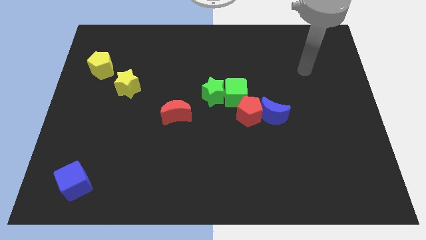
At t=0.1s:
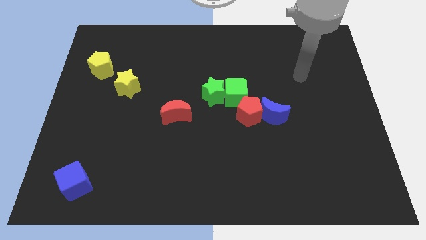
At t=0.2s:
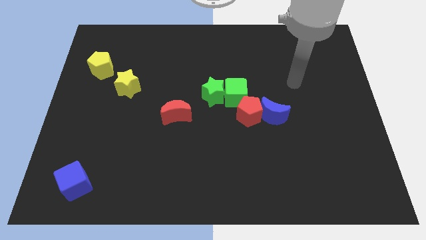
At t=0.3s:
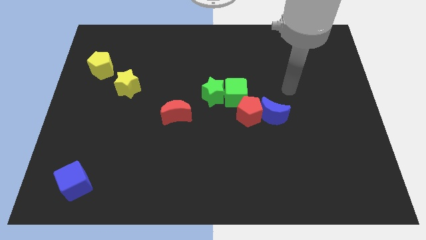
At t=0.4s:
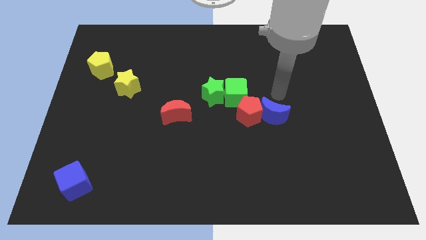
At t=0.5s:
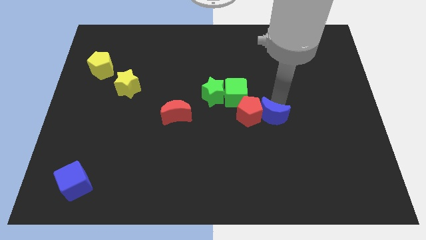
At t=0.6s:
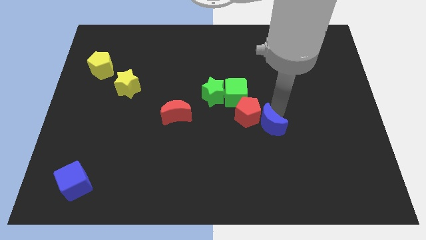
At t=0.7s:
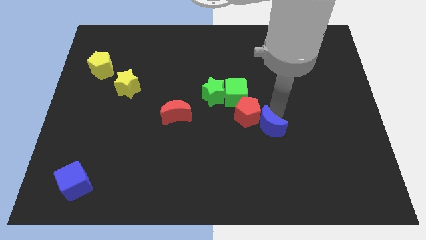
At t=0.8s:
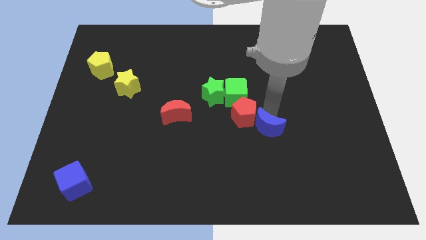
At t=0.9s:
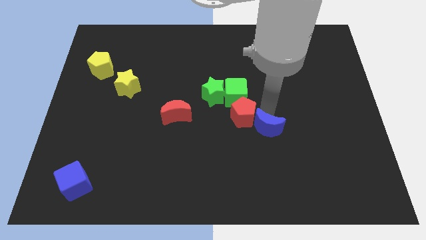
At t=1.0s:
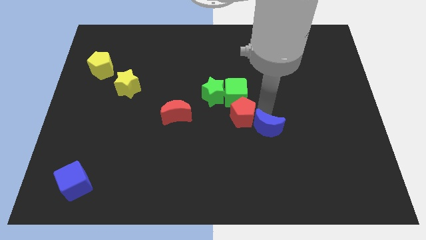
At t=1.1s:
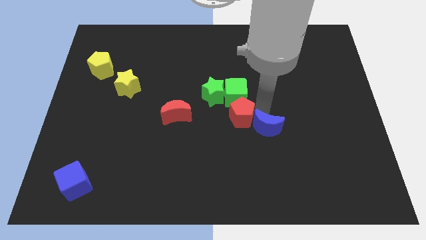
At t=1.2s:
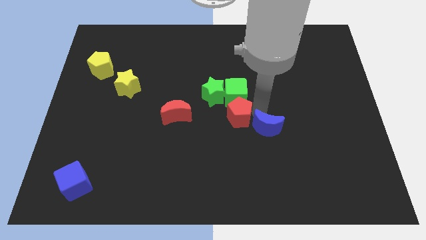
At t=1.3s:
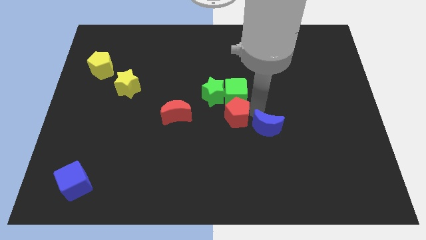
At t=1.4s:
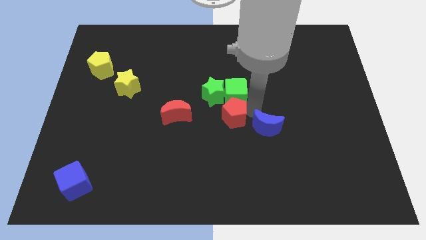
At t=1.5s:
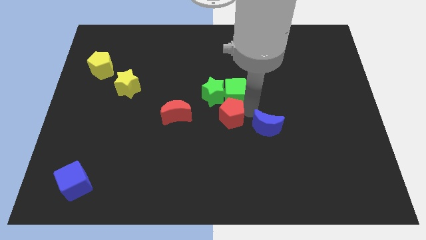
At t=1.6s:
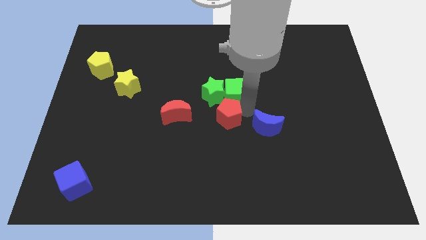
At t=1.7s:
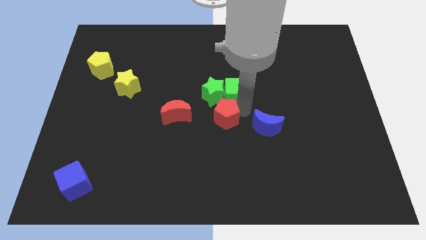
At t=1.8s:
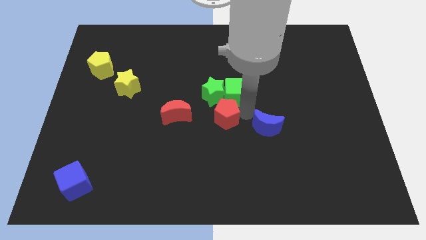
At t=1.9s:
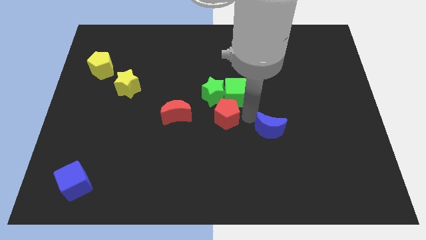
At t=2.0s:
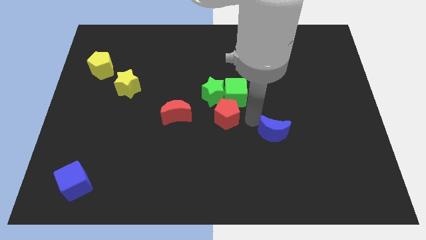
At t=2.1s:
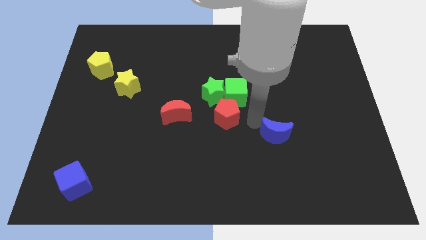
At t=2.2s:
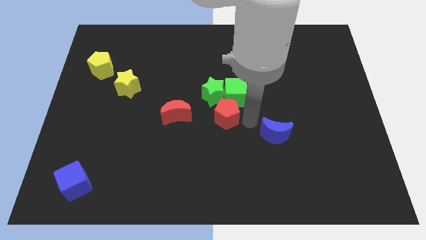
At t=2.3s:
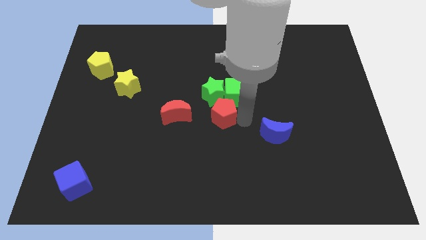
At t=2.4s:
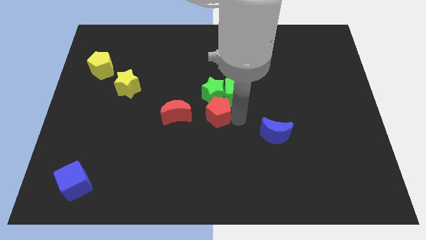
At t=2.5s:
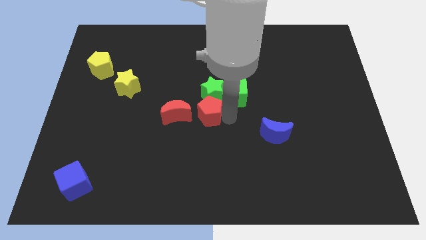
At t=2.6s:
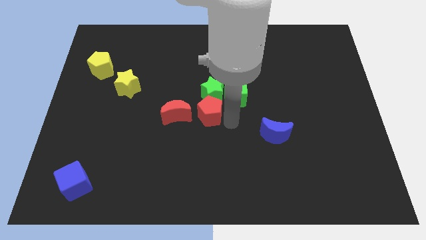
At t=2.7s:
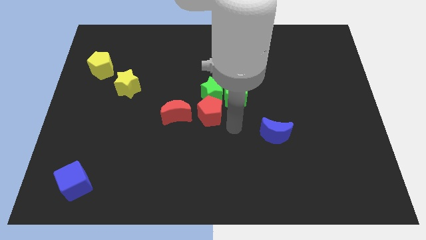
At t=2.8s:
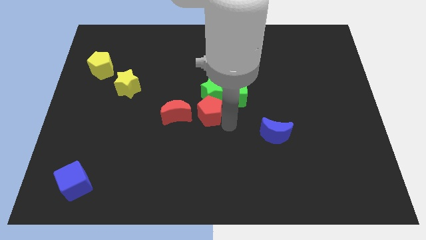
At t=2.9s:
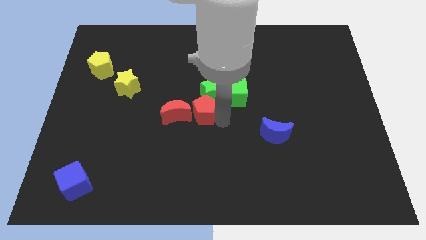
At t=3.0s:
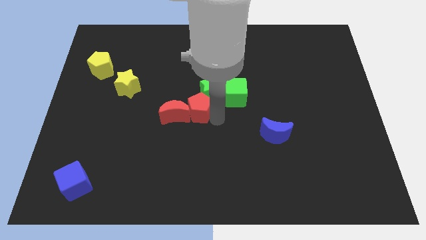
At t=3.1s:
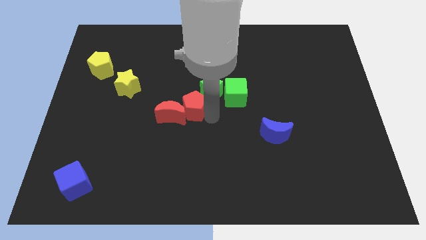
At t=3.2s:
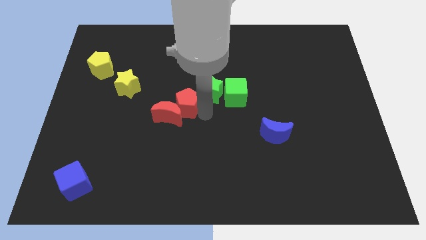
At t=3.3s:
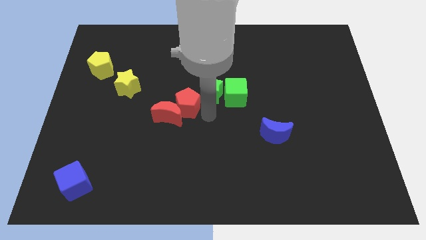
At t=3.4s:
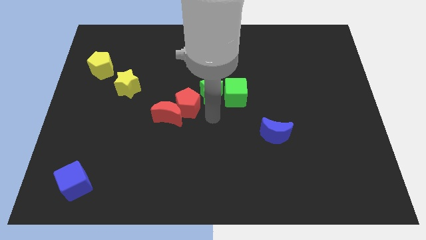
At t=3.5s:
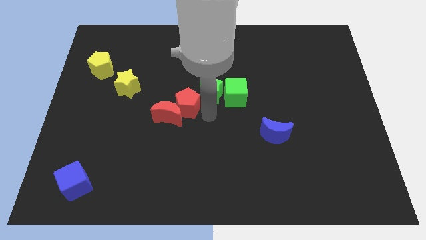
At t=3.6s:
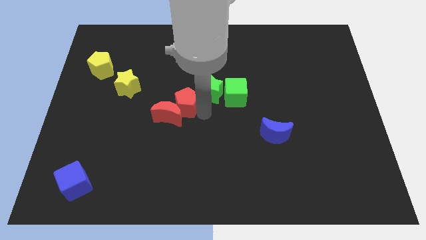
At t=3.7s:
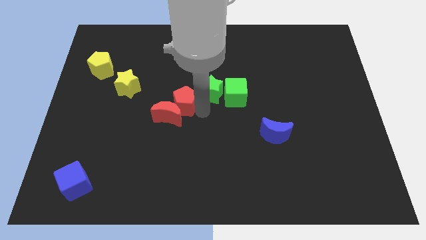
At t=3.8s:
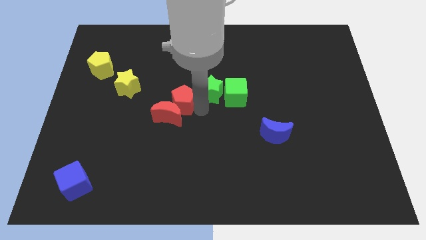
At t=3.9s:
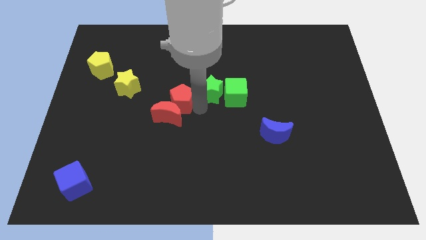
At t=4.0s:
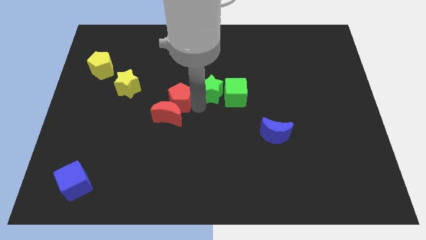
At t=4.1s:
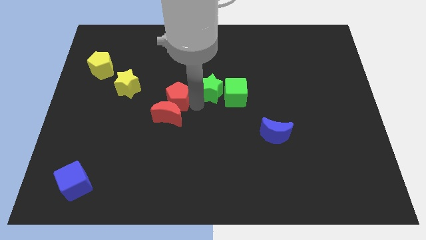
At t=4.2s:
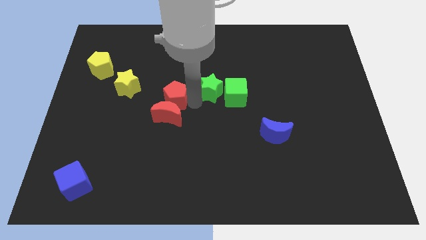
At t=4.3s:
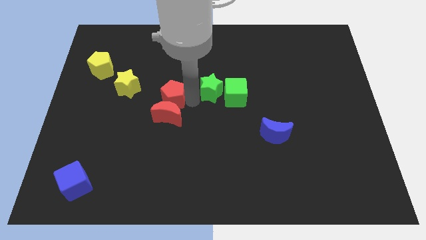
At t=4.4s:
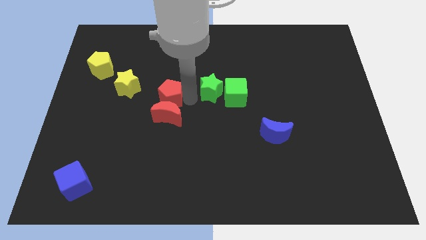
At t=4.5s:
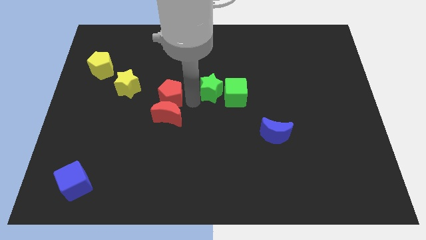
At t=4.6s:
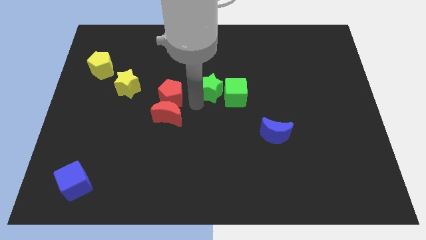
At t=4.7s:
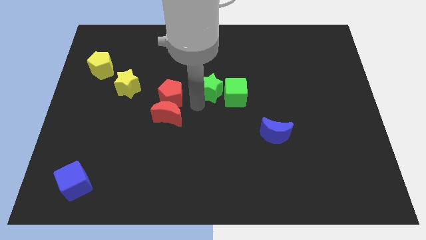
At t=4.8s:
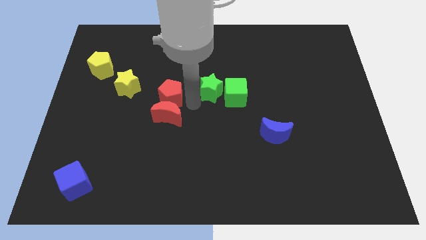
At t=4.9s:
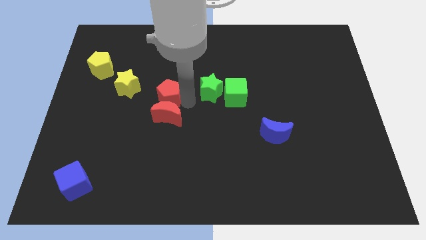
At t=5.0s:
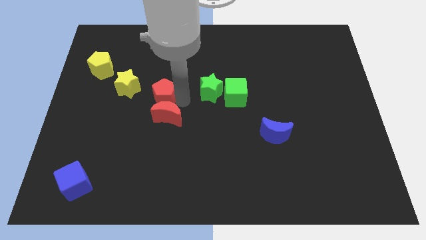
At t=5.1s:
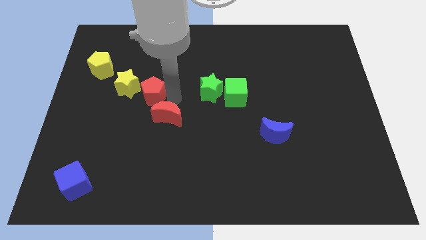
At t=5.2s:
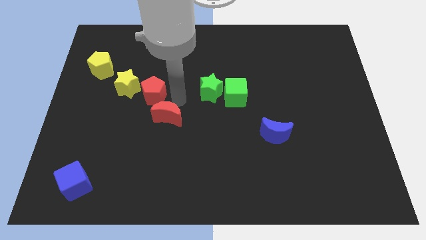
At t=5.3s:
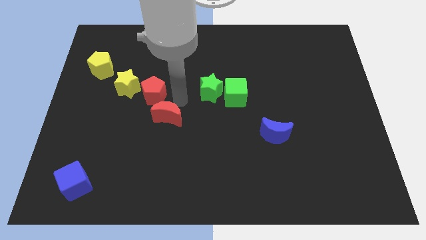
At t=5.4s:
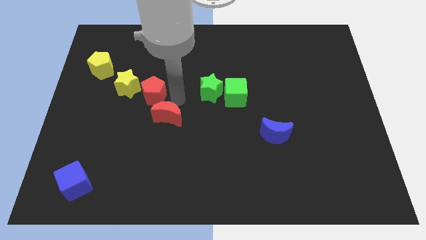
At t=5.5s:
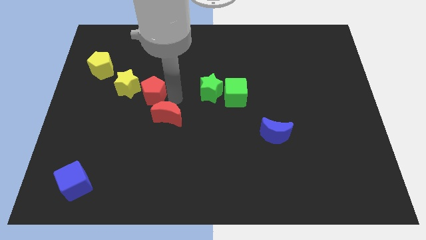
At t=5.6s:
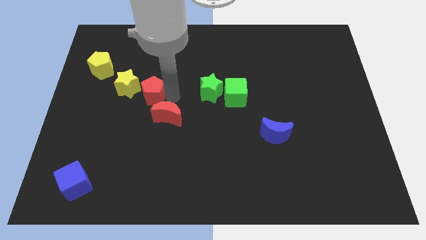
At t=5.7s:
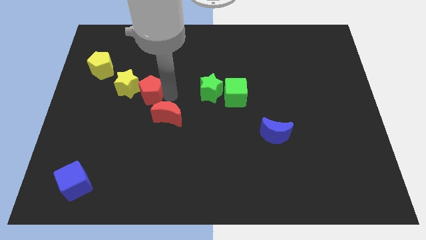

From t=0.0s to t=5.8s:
push the red pentagon to the yellow star

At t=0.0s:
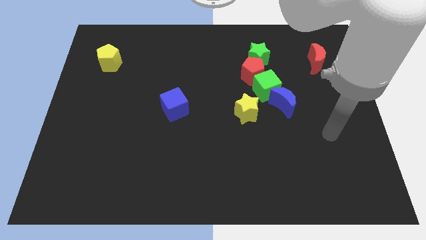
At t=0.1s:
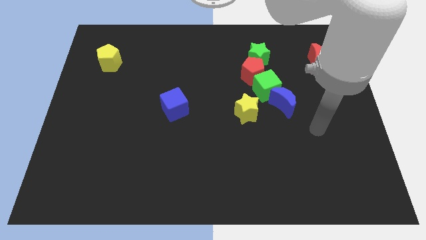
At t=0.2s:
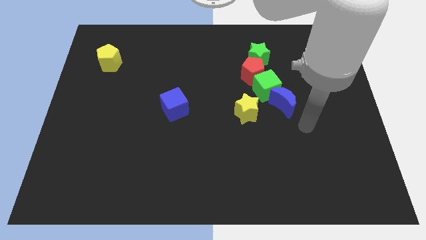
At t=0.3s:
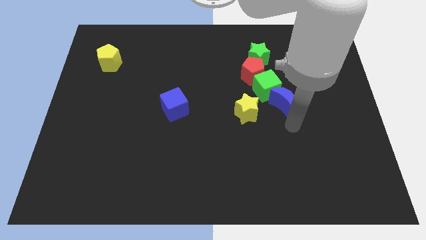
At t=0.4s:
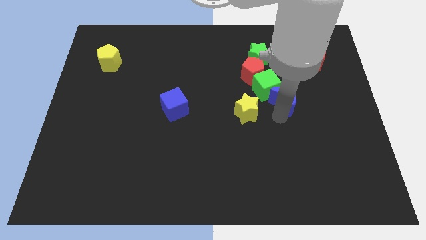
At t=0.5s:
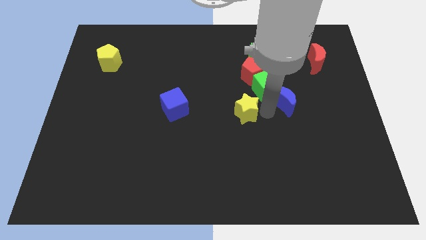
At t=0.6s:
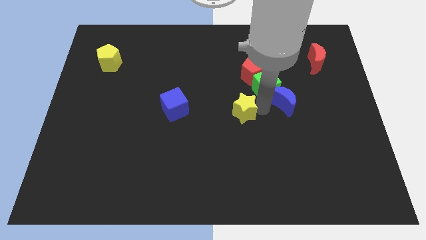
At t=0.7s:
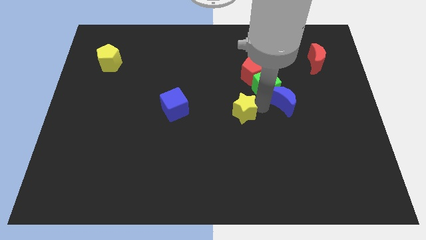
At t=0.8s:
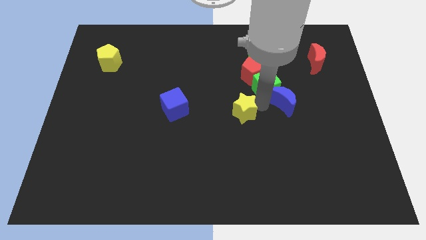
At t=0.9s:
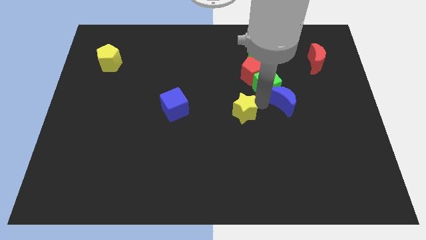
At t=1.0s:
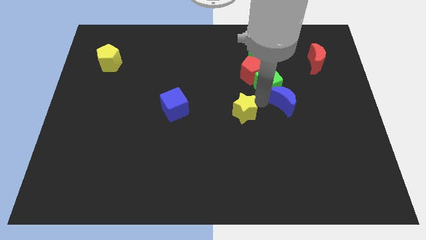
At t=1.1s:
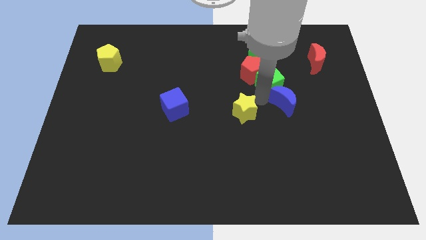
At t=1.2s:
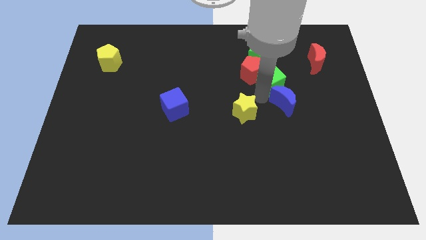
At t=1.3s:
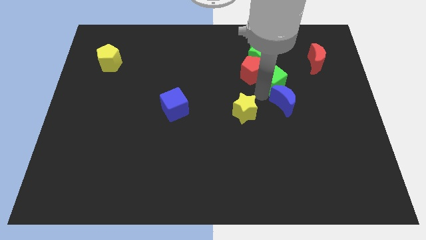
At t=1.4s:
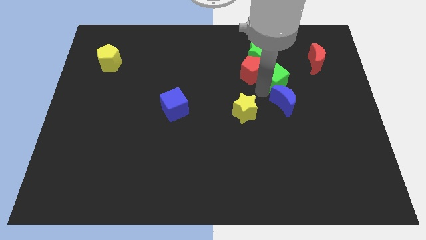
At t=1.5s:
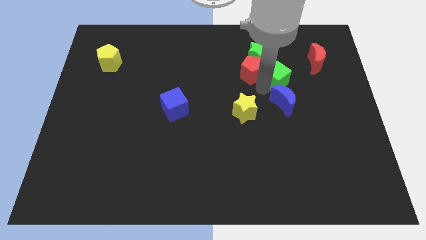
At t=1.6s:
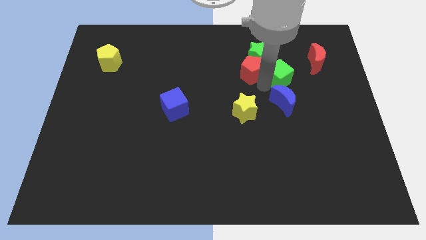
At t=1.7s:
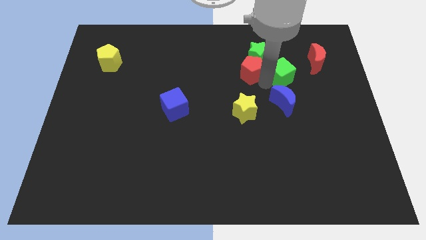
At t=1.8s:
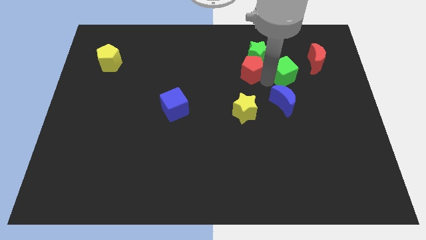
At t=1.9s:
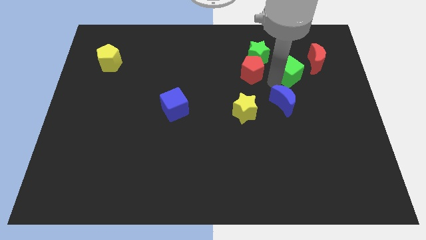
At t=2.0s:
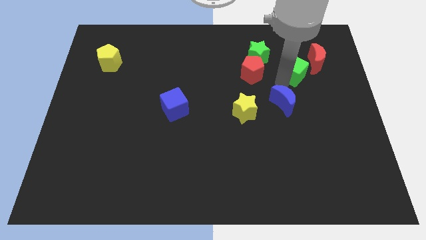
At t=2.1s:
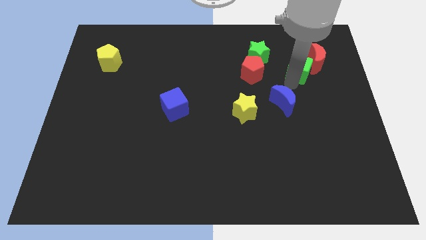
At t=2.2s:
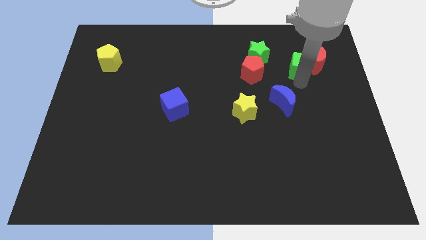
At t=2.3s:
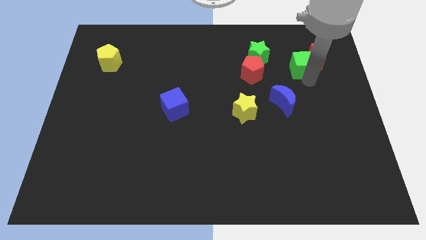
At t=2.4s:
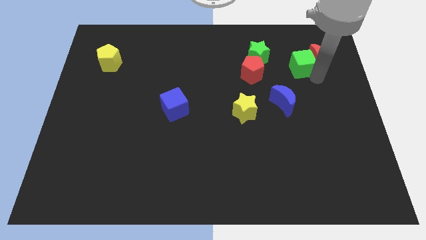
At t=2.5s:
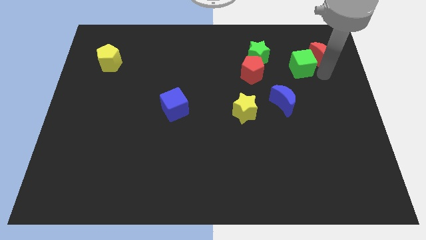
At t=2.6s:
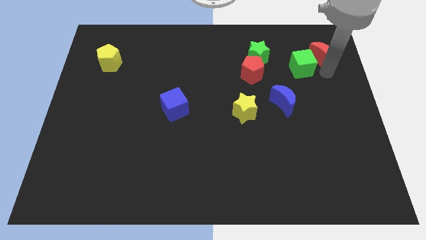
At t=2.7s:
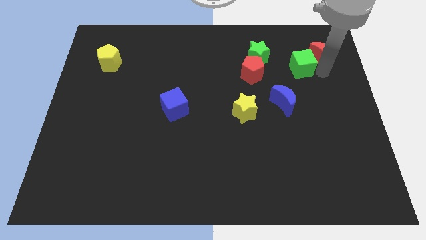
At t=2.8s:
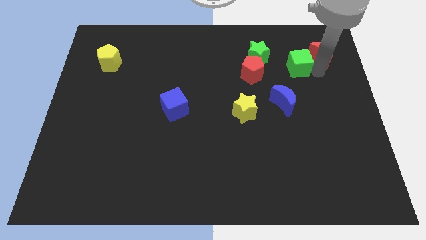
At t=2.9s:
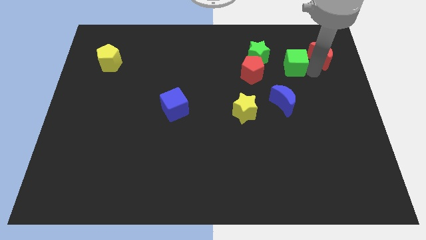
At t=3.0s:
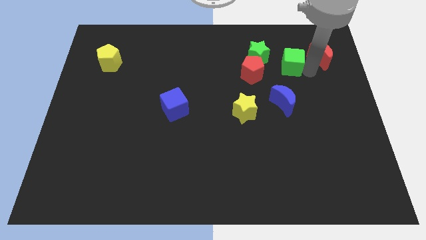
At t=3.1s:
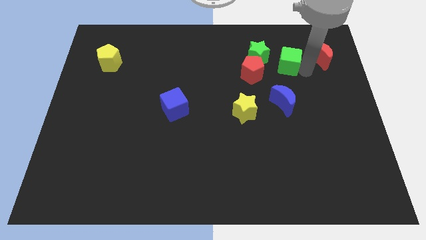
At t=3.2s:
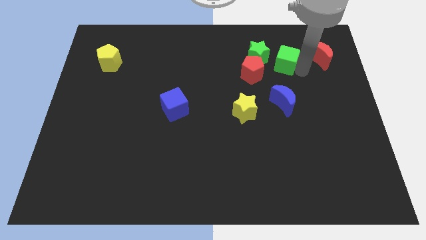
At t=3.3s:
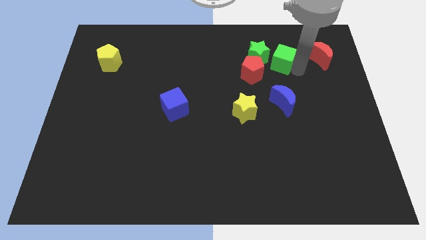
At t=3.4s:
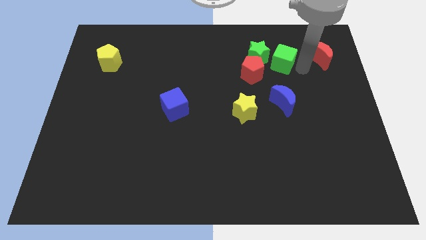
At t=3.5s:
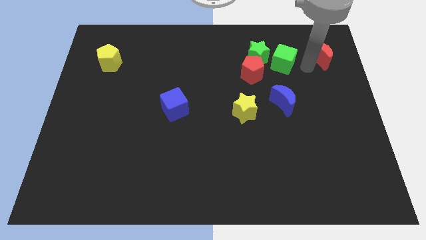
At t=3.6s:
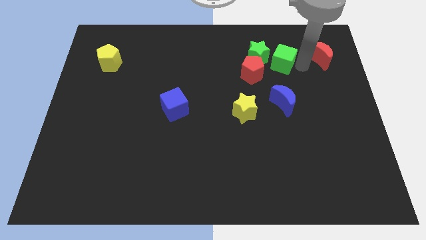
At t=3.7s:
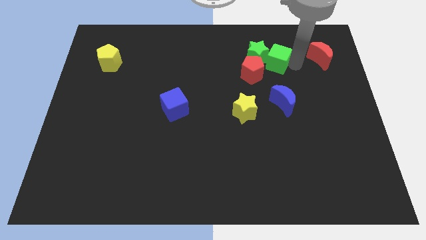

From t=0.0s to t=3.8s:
push the green cube close to the green star
